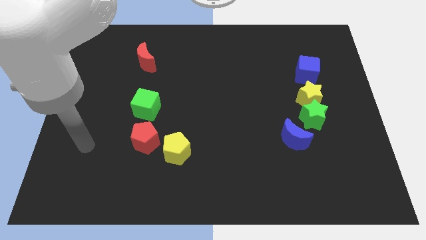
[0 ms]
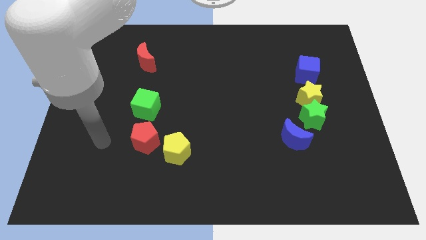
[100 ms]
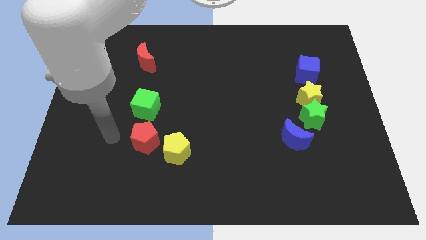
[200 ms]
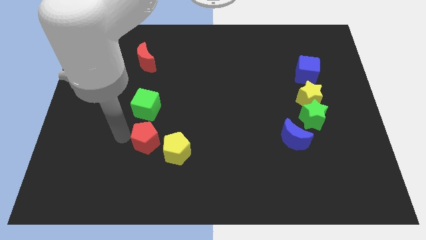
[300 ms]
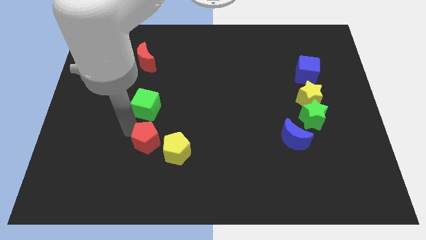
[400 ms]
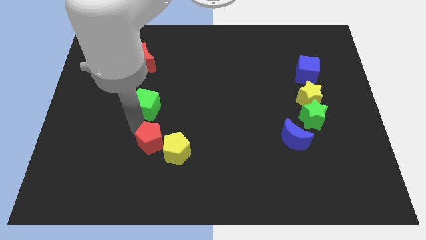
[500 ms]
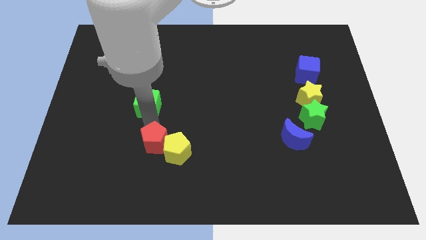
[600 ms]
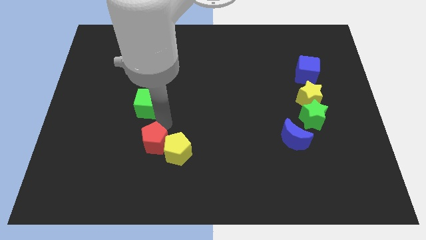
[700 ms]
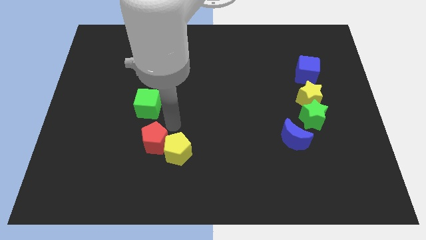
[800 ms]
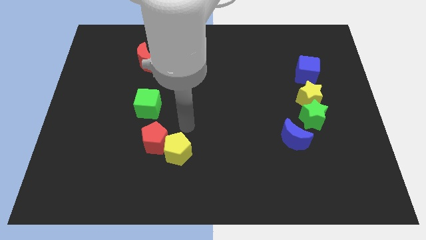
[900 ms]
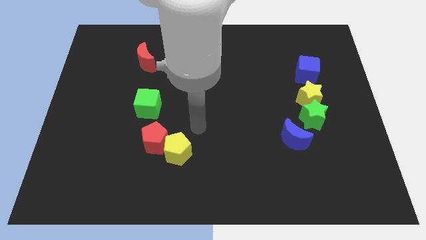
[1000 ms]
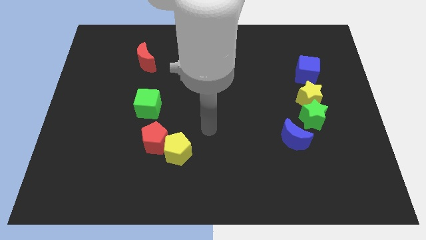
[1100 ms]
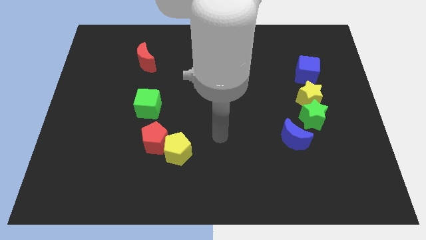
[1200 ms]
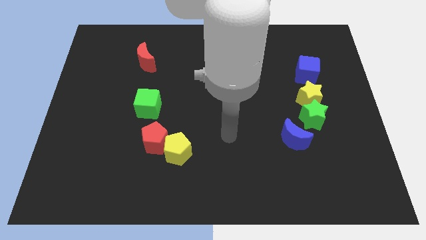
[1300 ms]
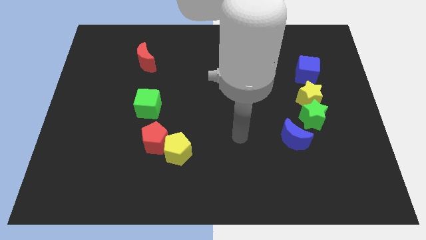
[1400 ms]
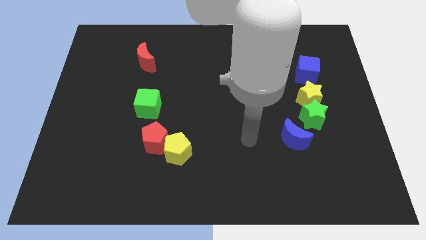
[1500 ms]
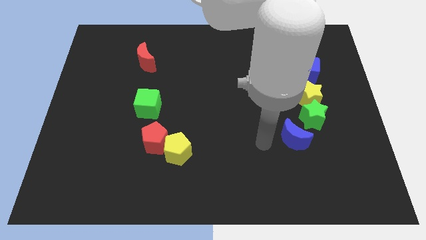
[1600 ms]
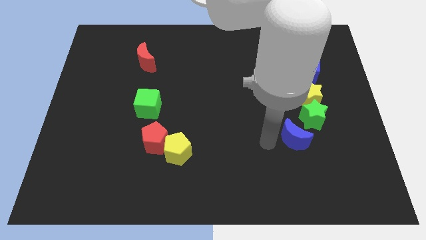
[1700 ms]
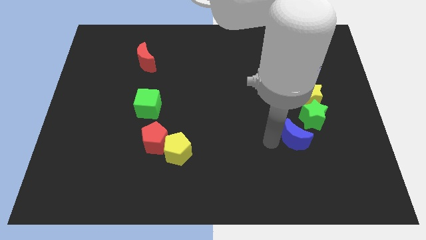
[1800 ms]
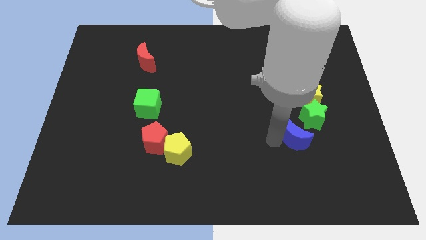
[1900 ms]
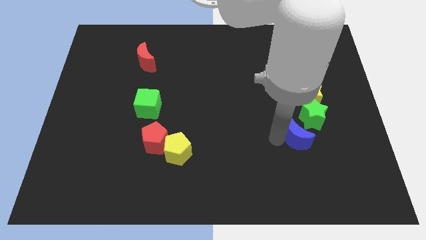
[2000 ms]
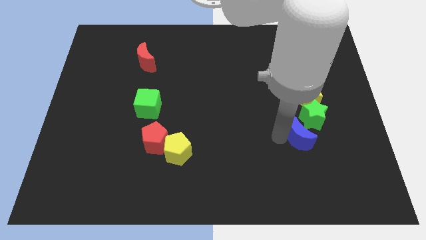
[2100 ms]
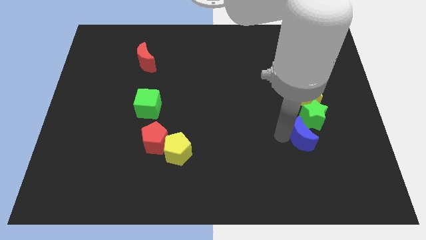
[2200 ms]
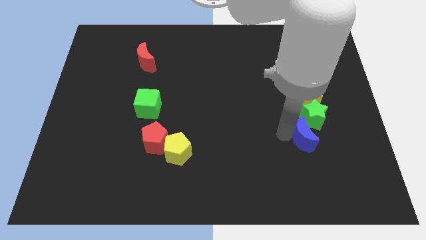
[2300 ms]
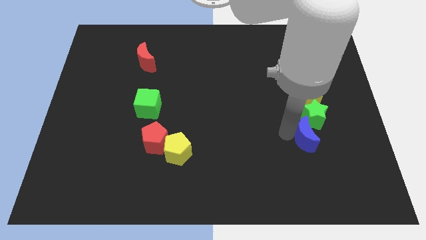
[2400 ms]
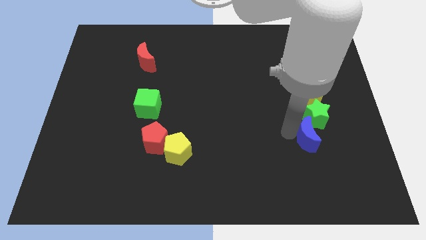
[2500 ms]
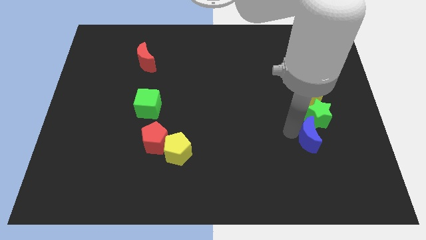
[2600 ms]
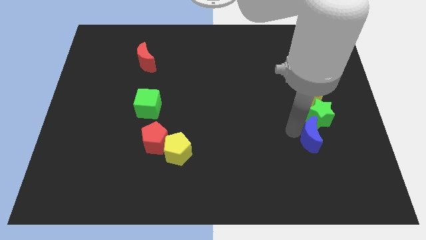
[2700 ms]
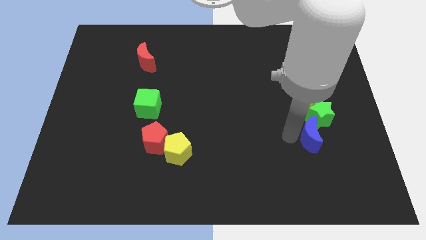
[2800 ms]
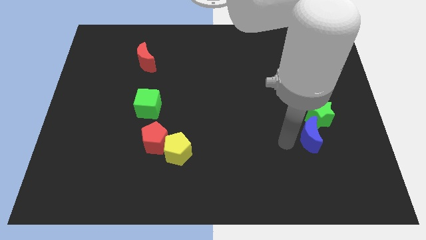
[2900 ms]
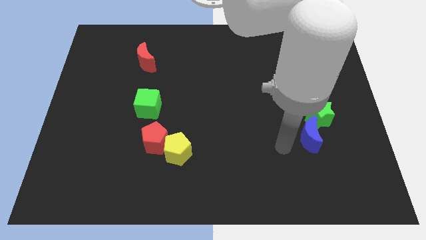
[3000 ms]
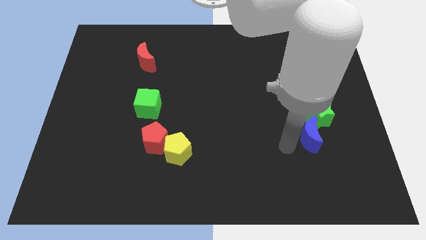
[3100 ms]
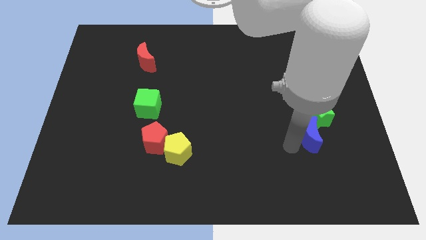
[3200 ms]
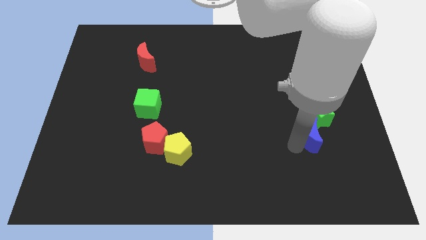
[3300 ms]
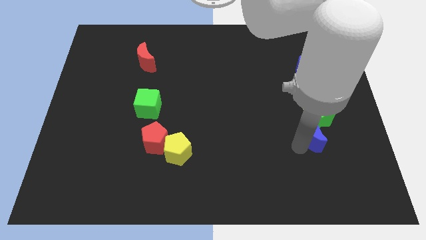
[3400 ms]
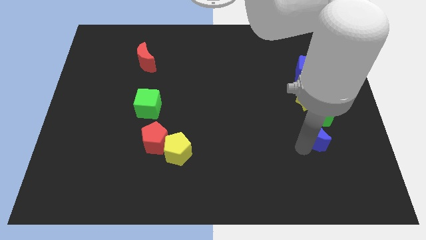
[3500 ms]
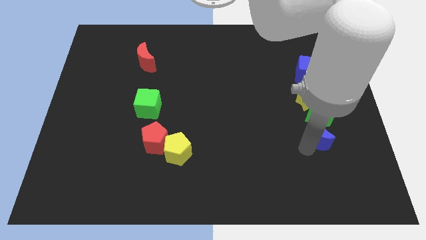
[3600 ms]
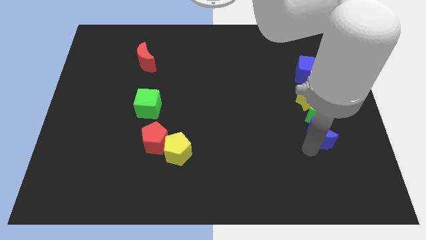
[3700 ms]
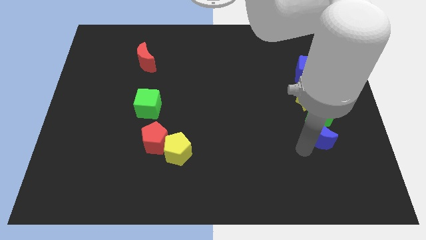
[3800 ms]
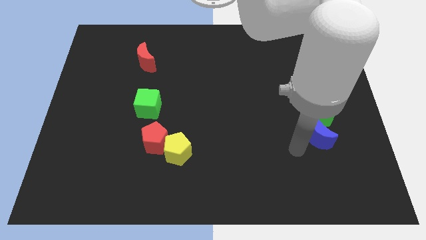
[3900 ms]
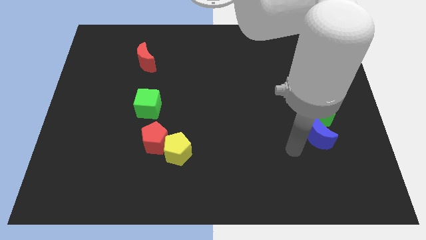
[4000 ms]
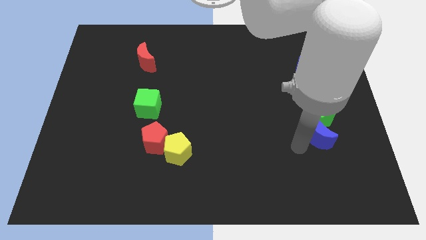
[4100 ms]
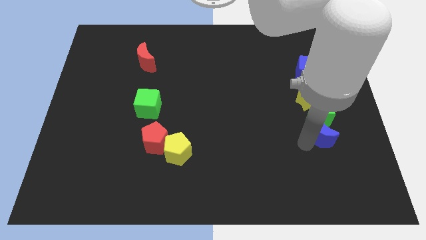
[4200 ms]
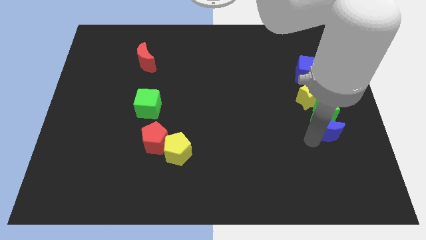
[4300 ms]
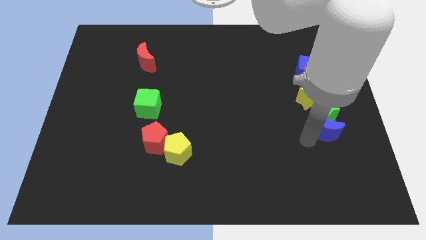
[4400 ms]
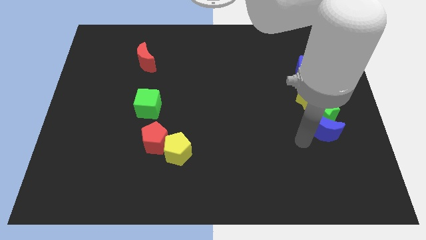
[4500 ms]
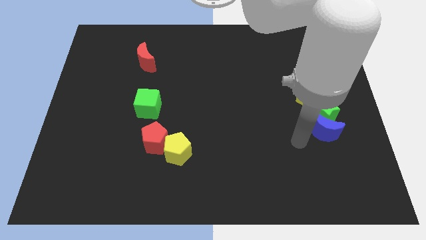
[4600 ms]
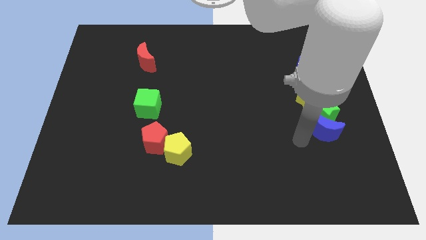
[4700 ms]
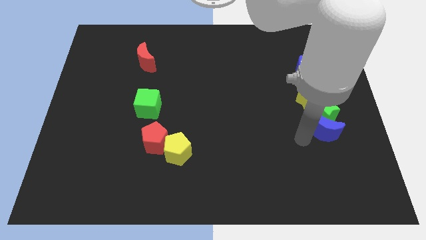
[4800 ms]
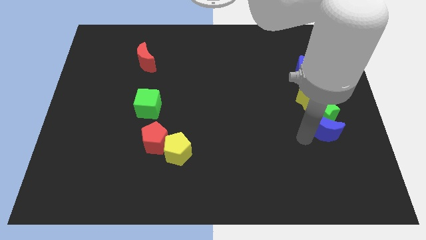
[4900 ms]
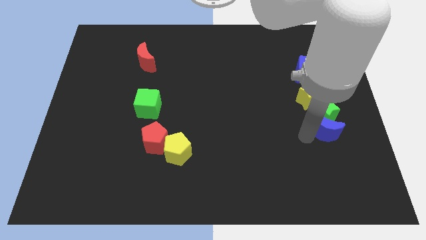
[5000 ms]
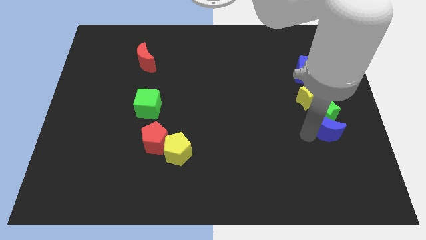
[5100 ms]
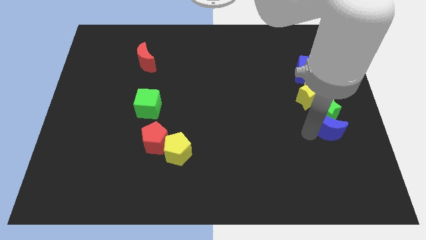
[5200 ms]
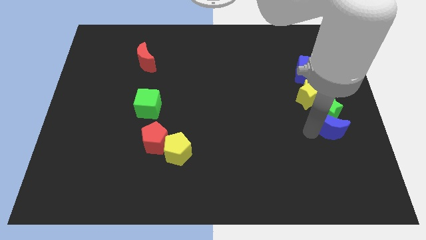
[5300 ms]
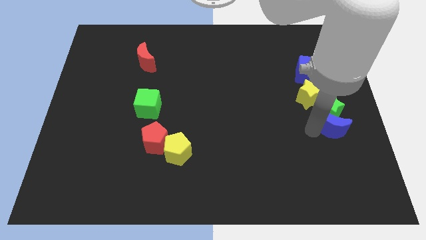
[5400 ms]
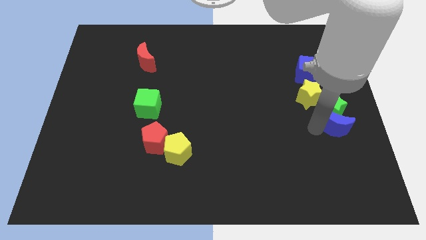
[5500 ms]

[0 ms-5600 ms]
slide the blue moon to the center right
